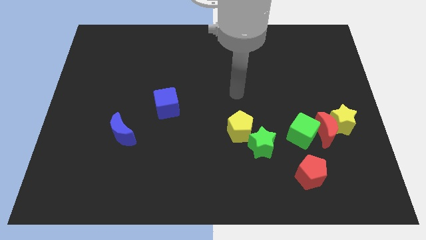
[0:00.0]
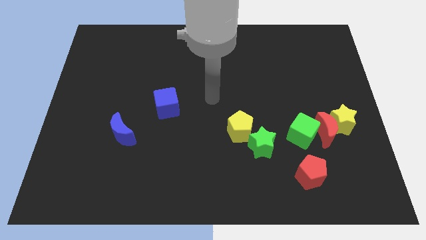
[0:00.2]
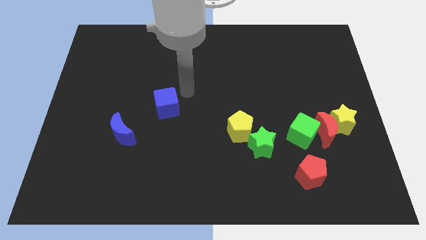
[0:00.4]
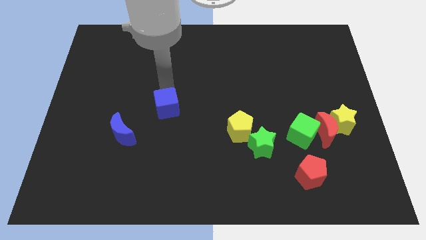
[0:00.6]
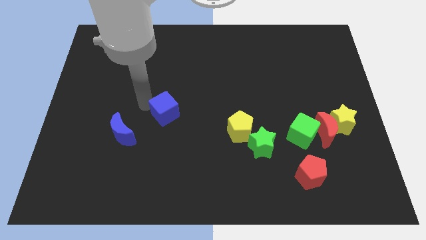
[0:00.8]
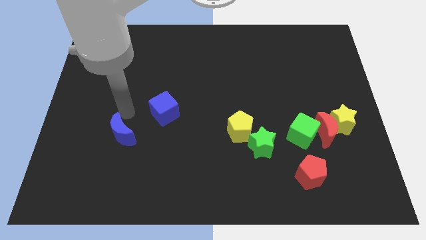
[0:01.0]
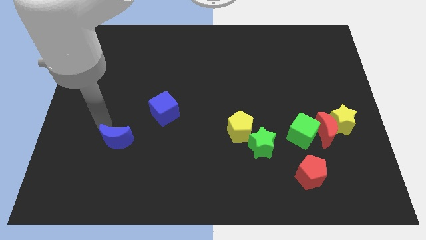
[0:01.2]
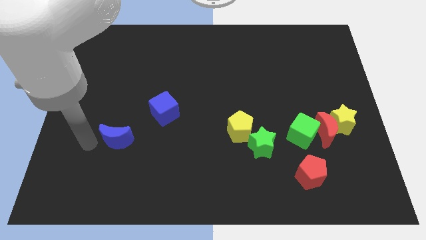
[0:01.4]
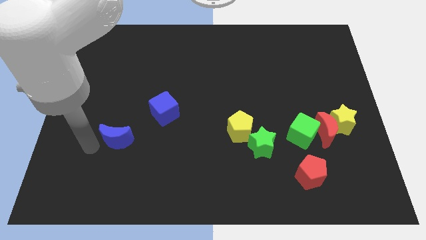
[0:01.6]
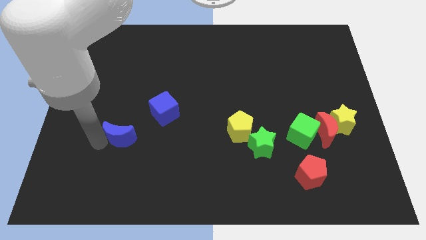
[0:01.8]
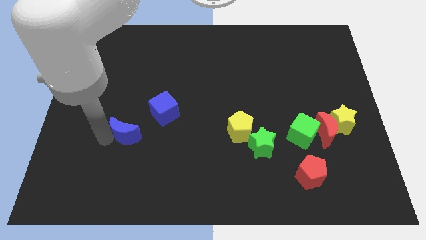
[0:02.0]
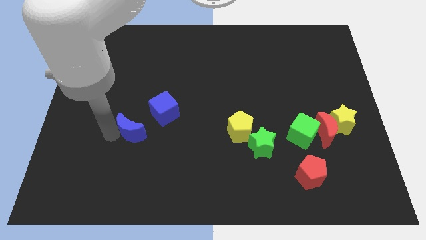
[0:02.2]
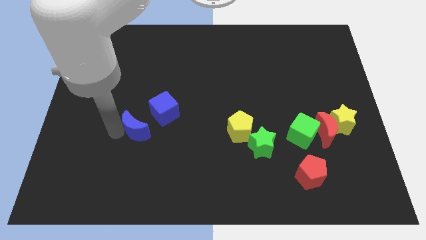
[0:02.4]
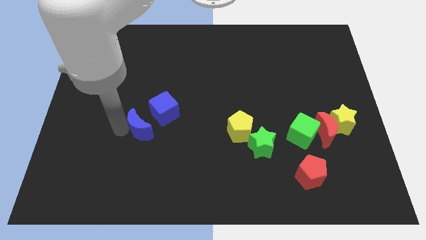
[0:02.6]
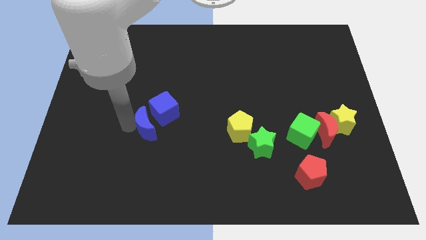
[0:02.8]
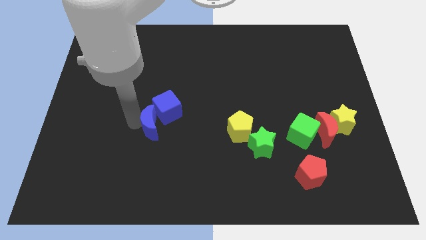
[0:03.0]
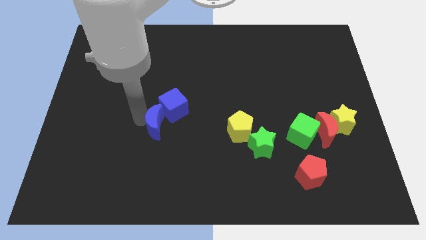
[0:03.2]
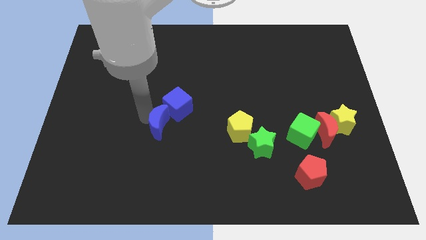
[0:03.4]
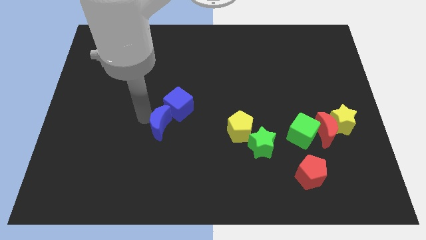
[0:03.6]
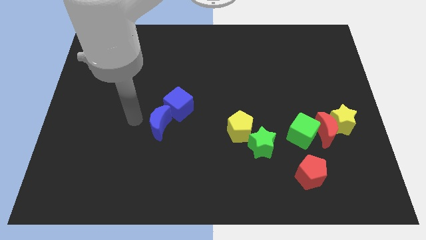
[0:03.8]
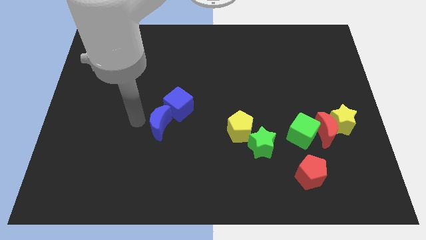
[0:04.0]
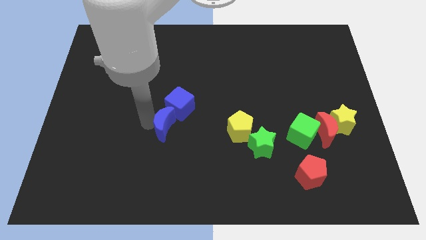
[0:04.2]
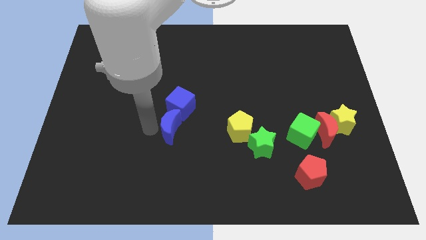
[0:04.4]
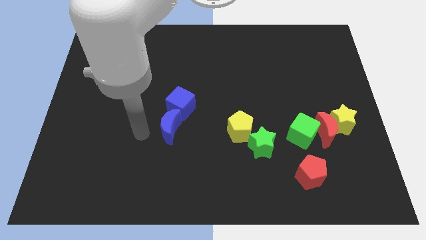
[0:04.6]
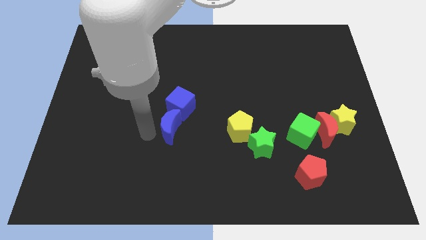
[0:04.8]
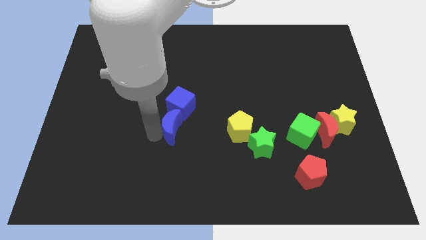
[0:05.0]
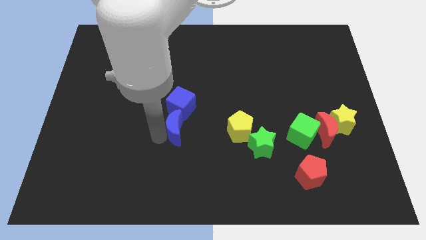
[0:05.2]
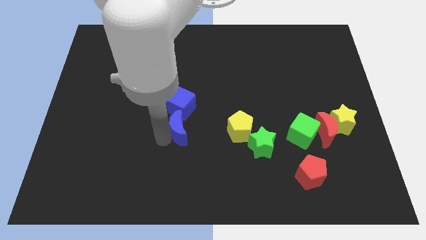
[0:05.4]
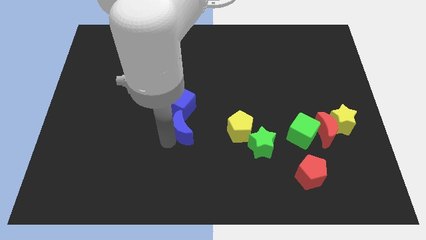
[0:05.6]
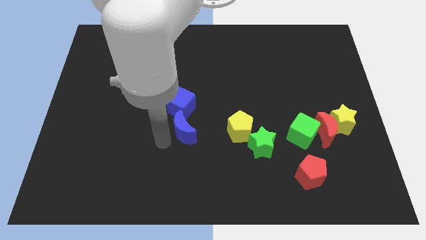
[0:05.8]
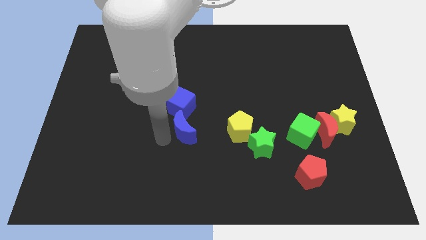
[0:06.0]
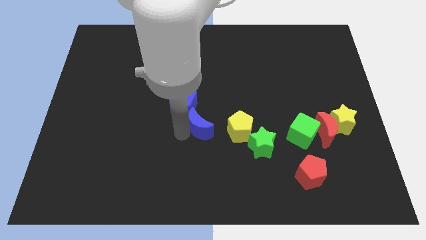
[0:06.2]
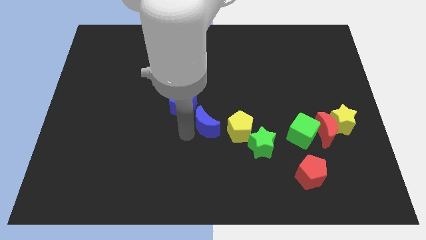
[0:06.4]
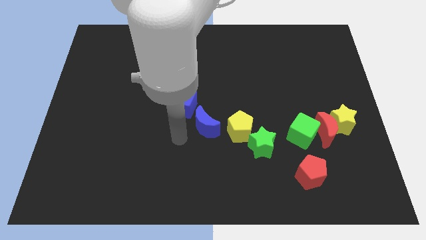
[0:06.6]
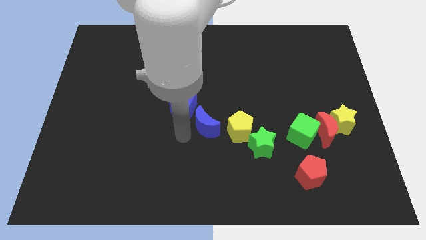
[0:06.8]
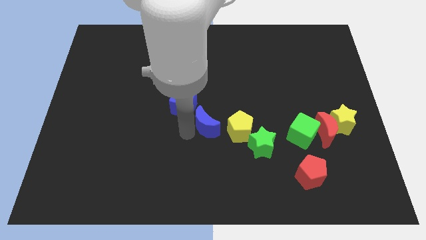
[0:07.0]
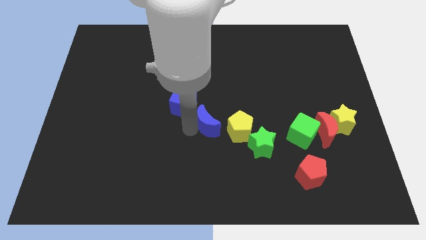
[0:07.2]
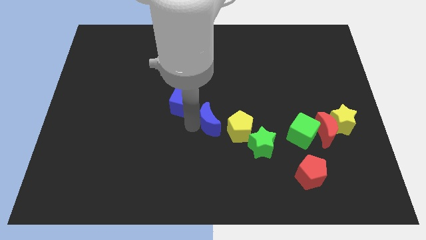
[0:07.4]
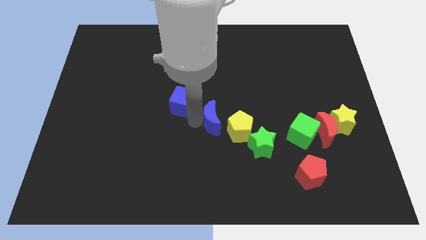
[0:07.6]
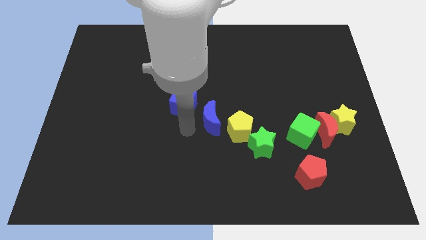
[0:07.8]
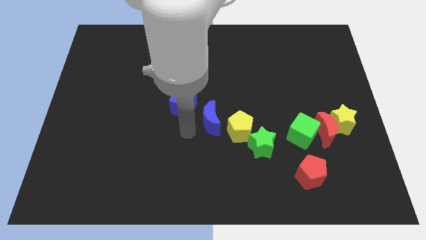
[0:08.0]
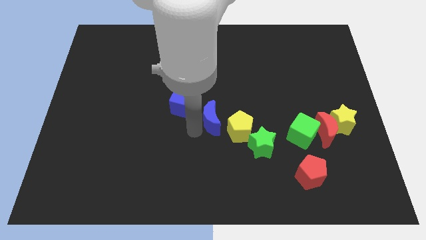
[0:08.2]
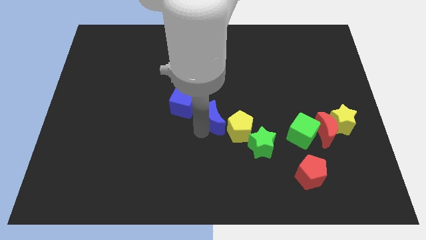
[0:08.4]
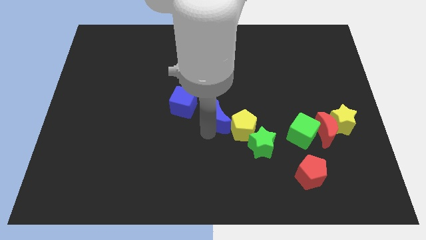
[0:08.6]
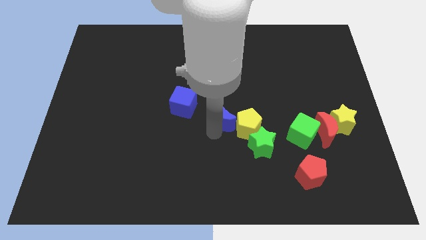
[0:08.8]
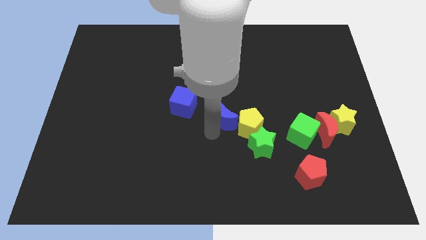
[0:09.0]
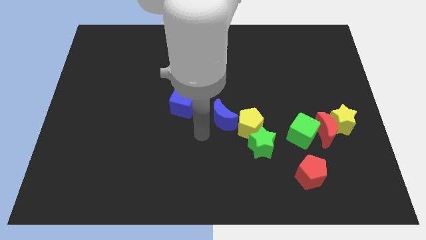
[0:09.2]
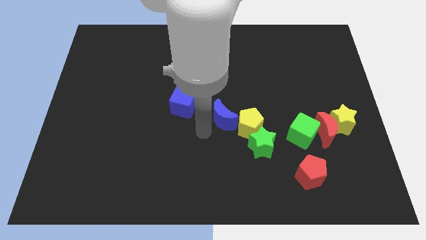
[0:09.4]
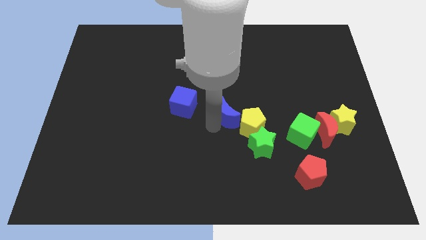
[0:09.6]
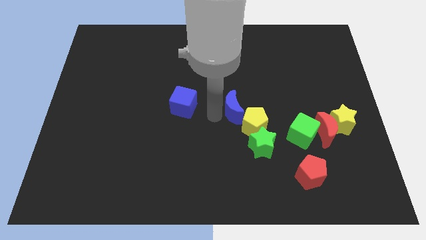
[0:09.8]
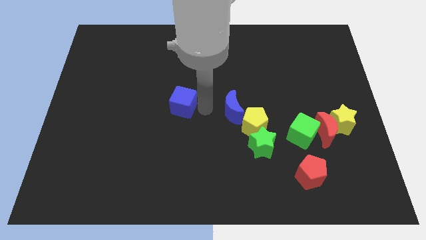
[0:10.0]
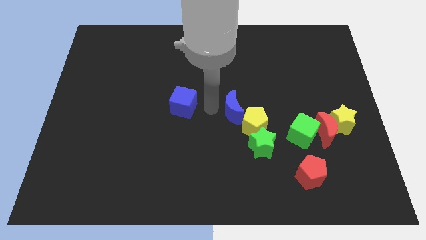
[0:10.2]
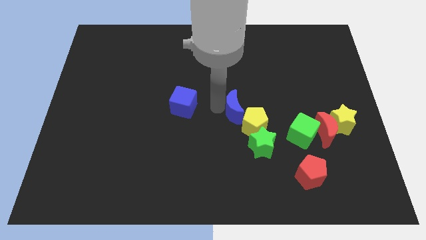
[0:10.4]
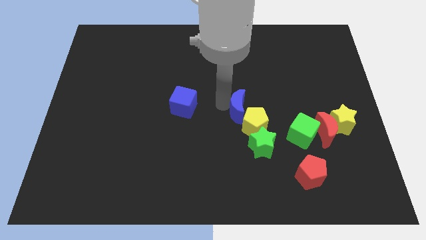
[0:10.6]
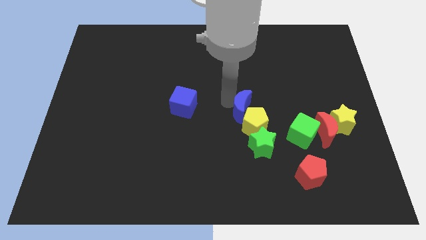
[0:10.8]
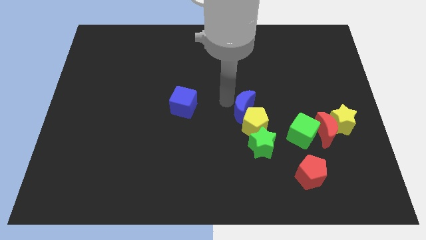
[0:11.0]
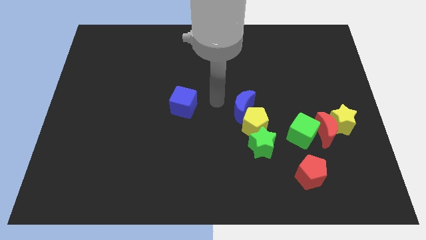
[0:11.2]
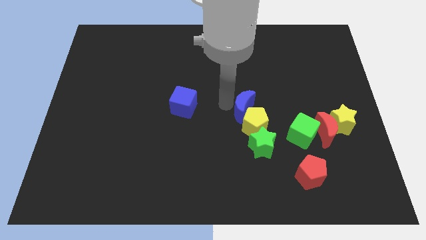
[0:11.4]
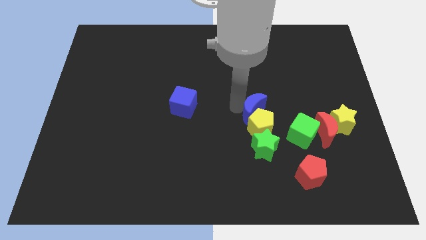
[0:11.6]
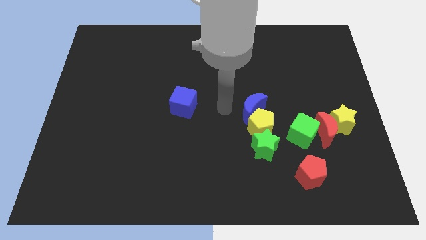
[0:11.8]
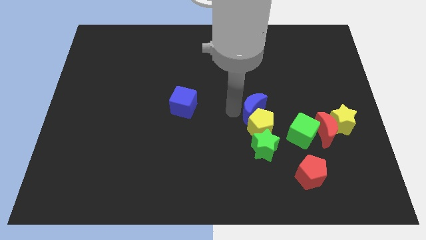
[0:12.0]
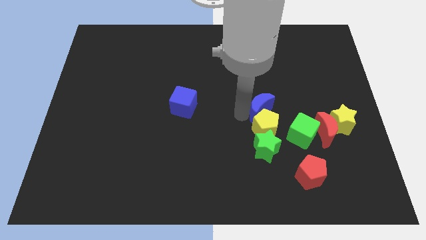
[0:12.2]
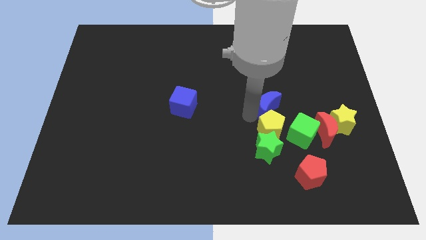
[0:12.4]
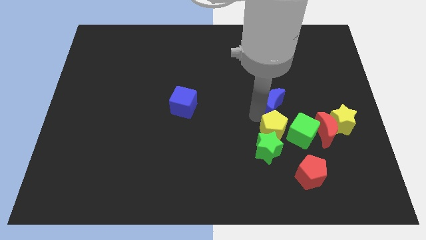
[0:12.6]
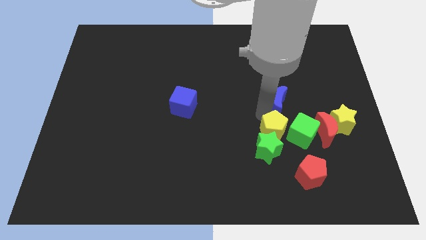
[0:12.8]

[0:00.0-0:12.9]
slide the blue moon to the top left side of the red moon
